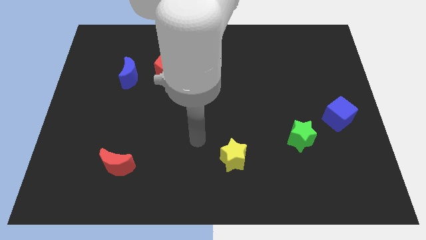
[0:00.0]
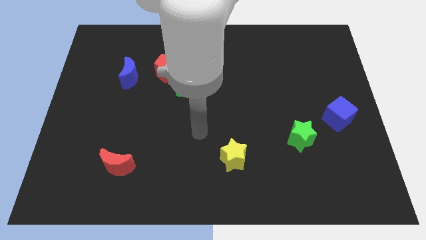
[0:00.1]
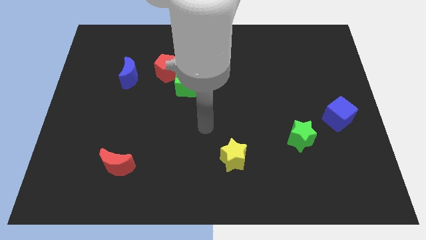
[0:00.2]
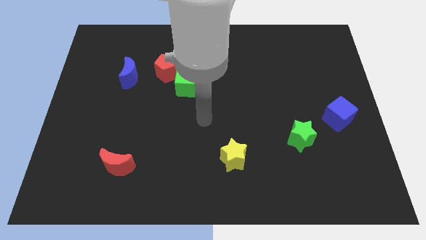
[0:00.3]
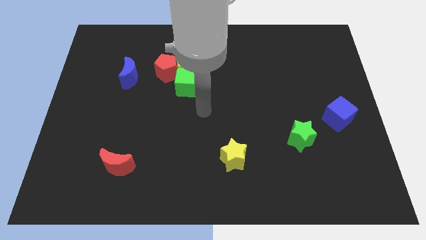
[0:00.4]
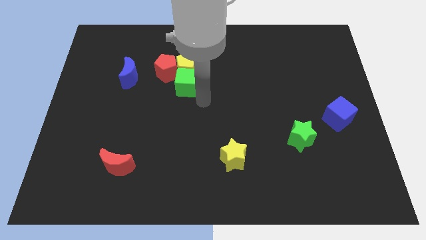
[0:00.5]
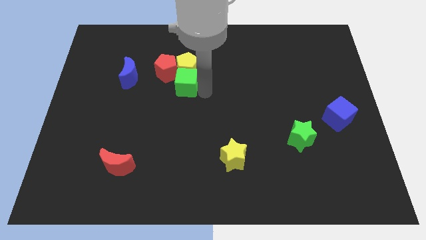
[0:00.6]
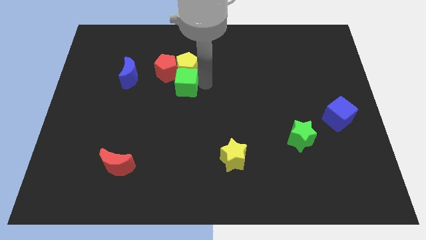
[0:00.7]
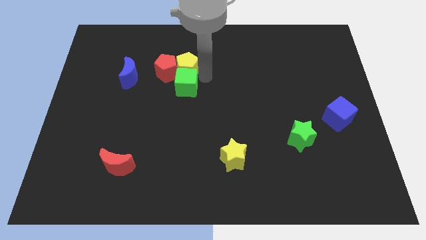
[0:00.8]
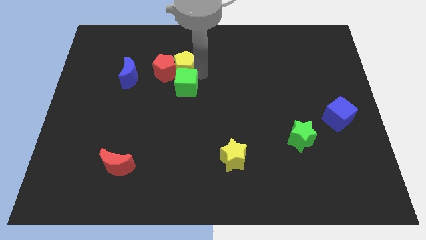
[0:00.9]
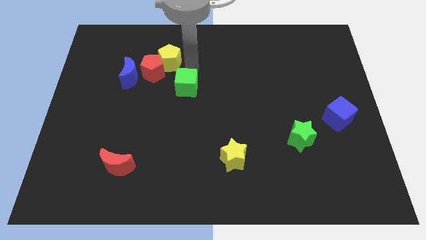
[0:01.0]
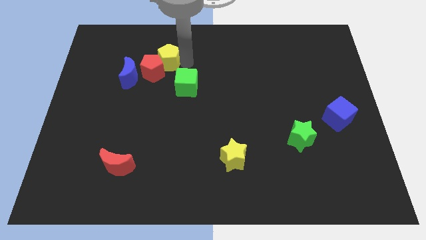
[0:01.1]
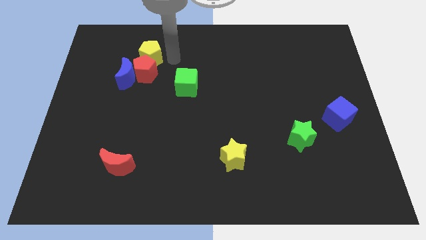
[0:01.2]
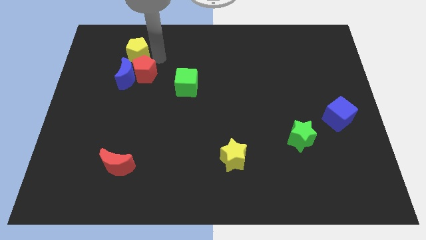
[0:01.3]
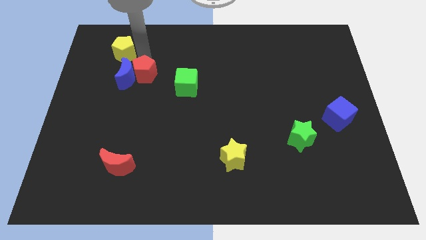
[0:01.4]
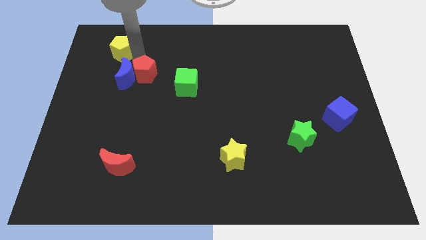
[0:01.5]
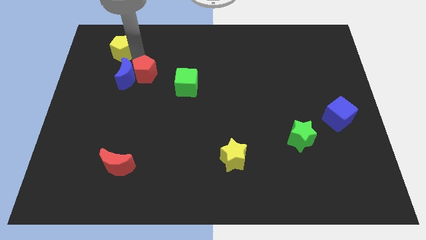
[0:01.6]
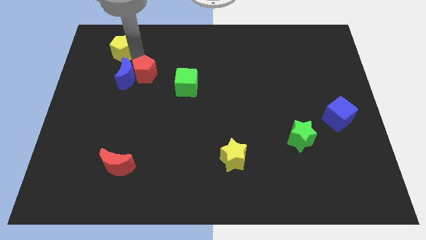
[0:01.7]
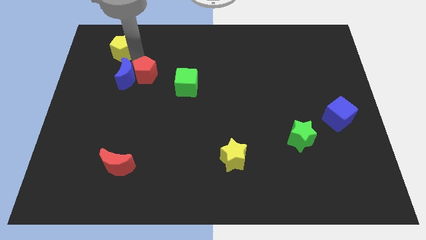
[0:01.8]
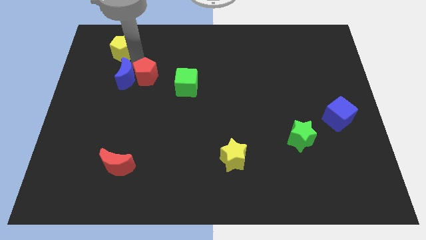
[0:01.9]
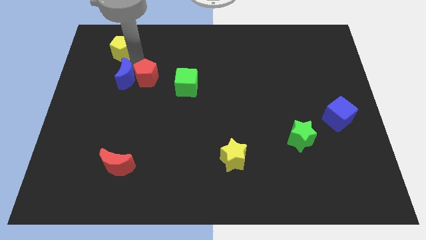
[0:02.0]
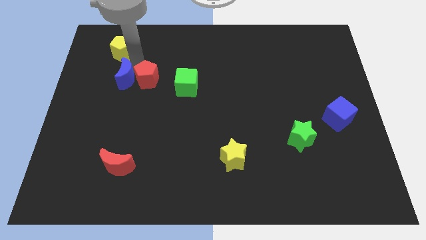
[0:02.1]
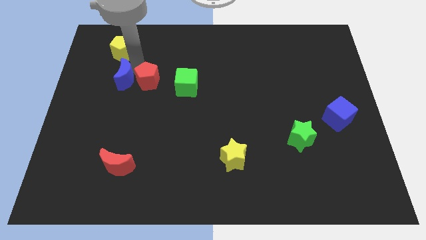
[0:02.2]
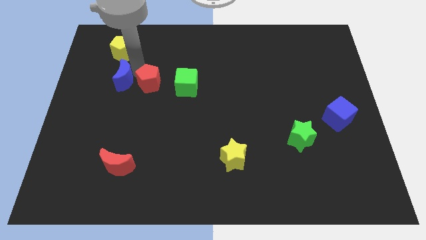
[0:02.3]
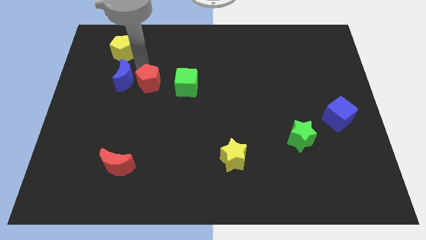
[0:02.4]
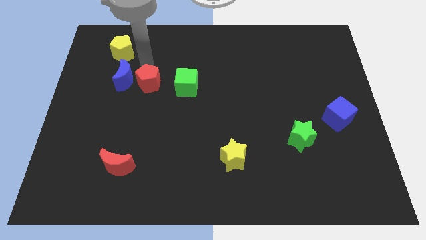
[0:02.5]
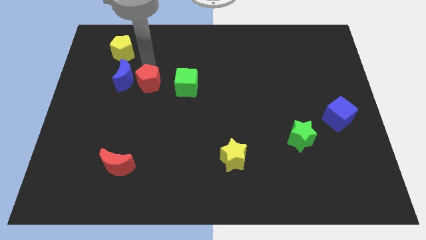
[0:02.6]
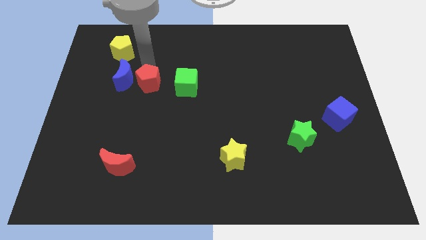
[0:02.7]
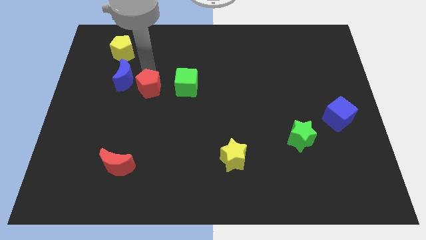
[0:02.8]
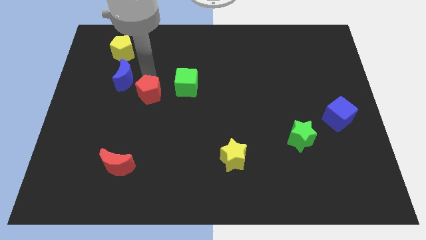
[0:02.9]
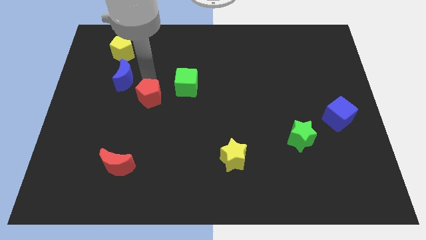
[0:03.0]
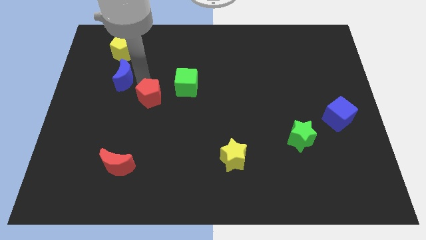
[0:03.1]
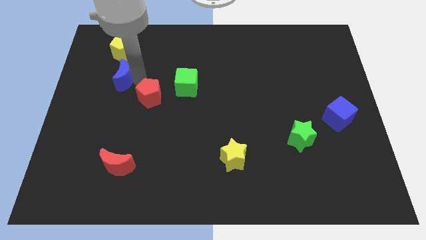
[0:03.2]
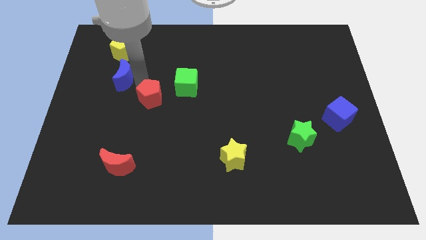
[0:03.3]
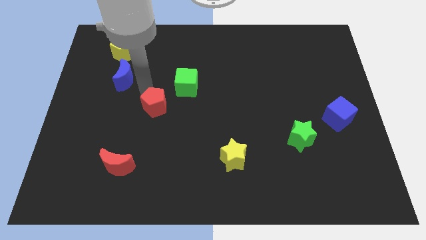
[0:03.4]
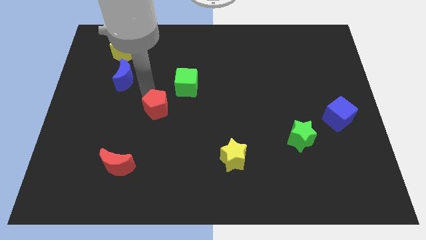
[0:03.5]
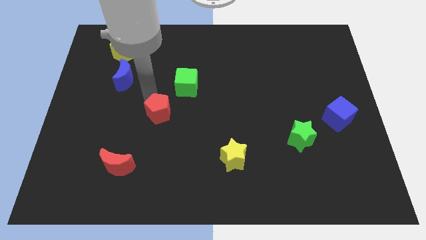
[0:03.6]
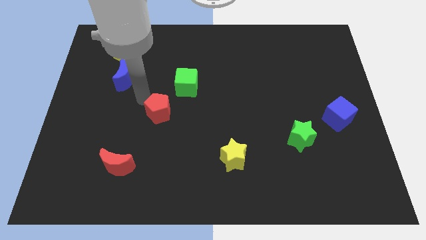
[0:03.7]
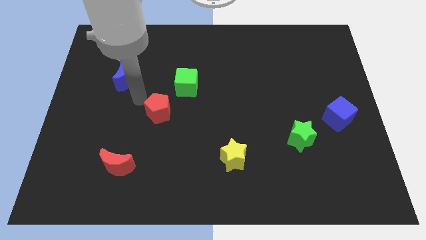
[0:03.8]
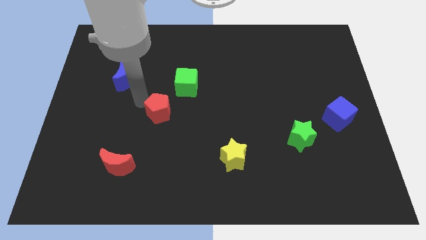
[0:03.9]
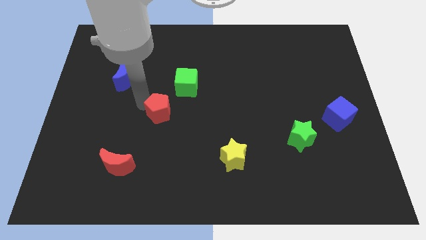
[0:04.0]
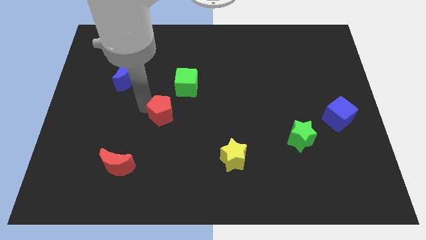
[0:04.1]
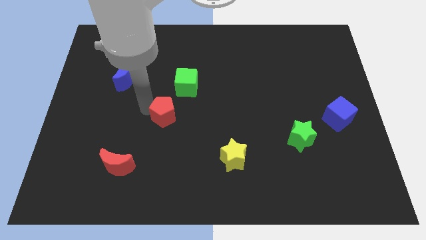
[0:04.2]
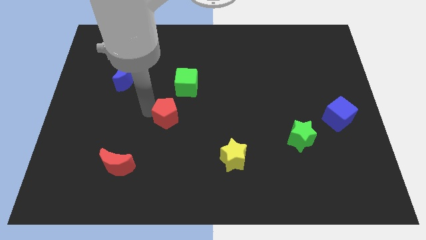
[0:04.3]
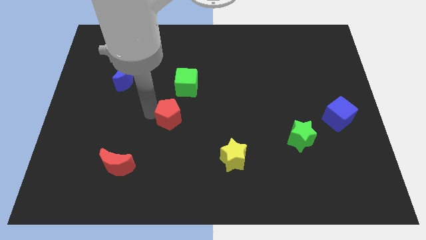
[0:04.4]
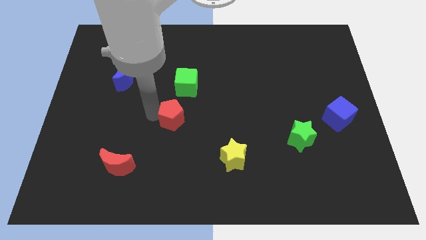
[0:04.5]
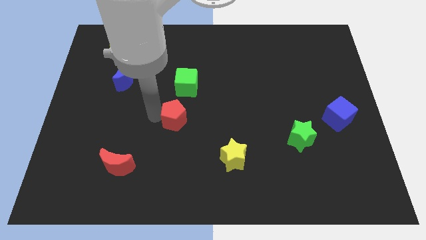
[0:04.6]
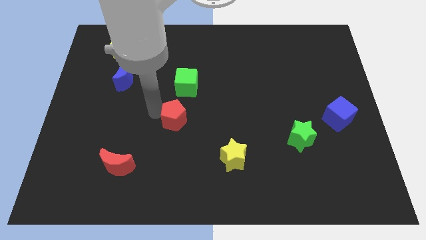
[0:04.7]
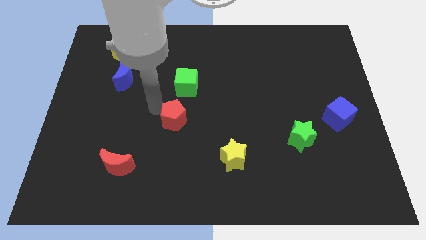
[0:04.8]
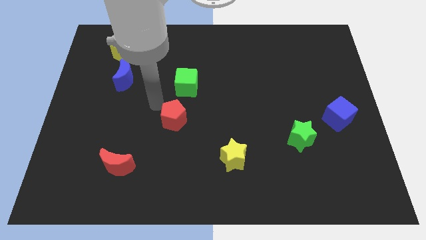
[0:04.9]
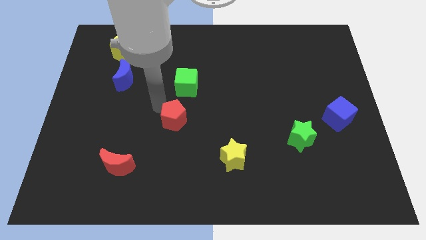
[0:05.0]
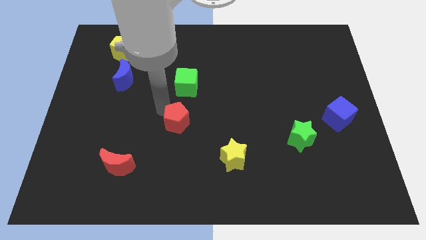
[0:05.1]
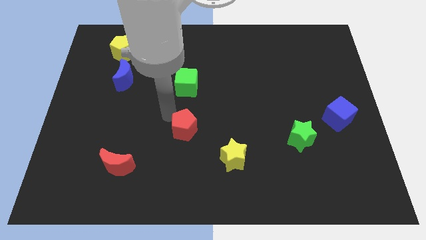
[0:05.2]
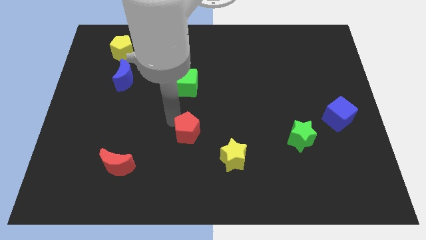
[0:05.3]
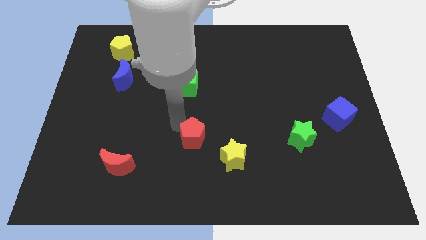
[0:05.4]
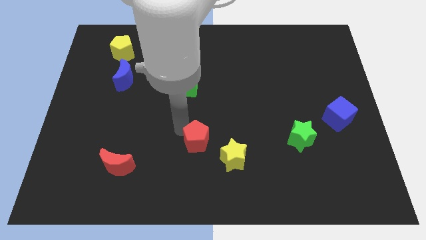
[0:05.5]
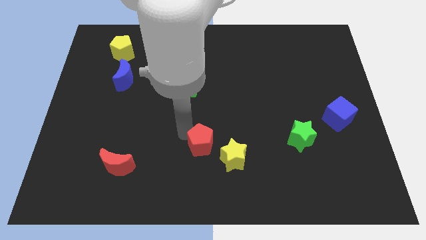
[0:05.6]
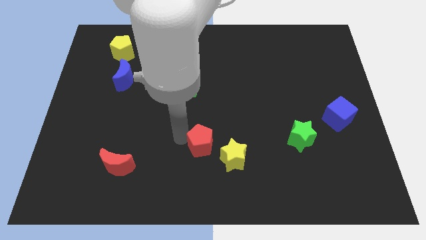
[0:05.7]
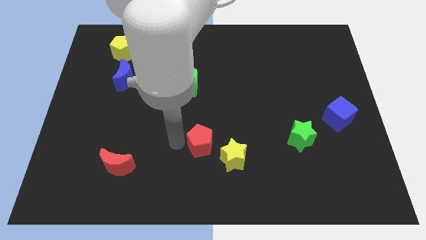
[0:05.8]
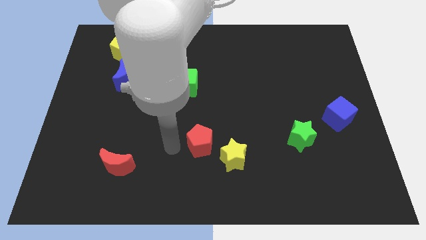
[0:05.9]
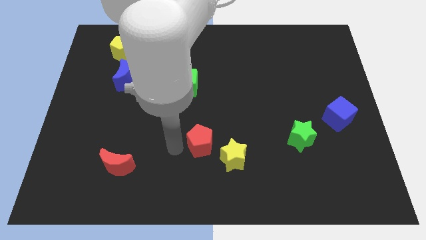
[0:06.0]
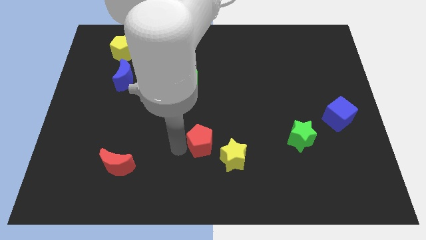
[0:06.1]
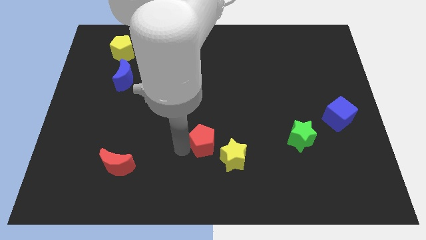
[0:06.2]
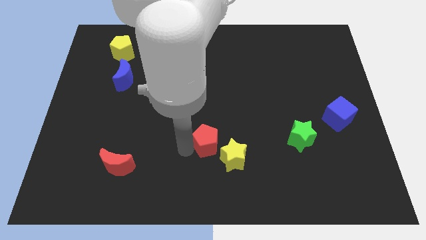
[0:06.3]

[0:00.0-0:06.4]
push the red pentagon diagonally down and right

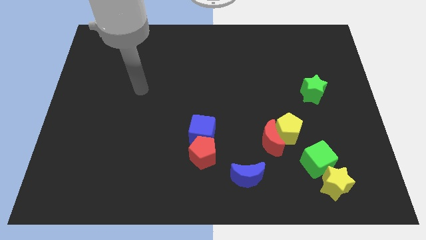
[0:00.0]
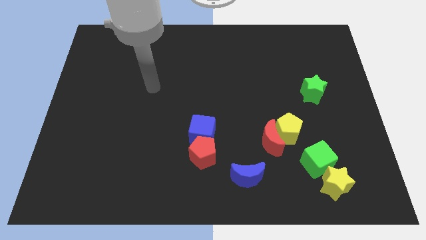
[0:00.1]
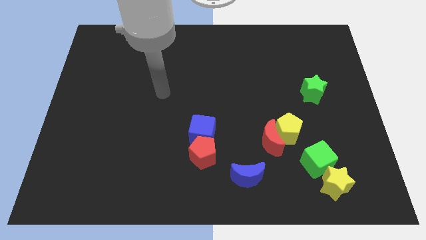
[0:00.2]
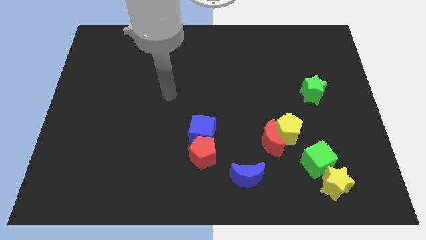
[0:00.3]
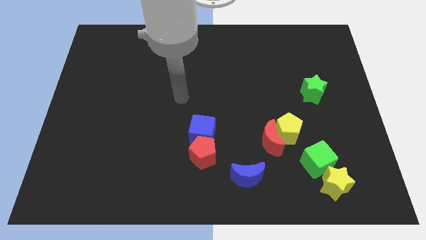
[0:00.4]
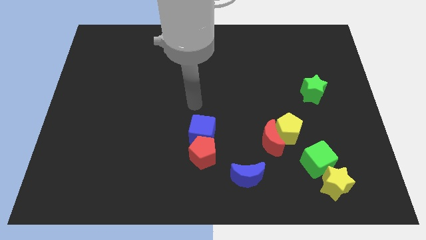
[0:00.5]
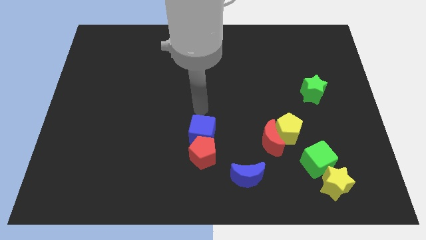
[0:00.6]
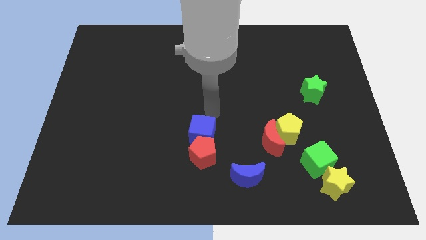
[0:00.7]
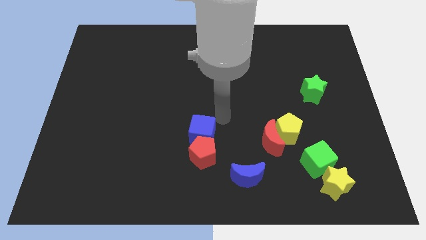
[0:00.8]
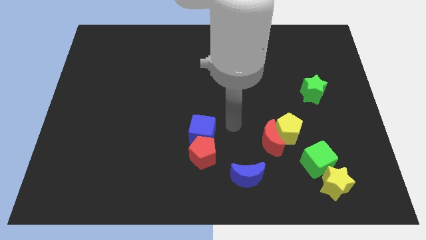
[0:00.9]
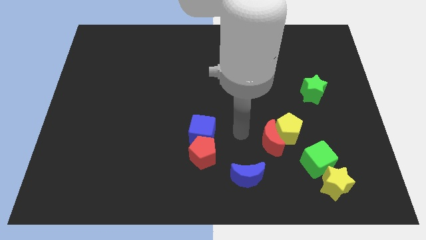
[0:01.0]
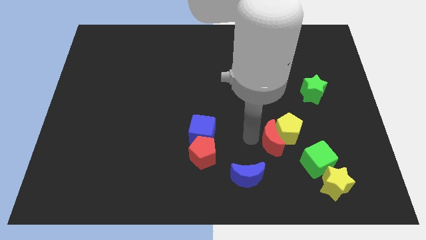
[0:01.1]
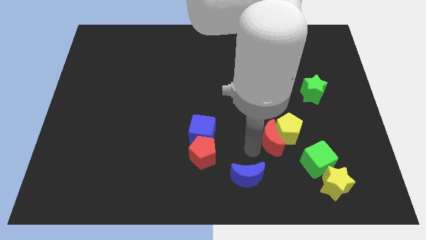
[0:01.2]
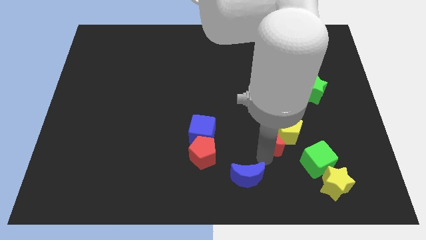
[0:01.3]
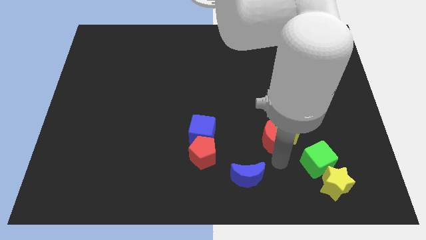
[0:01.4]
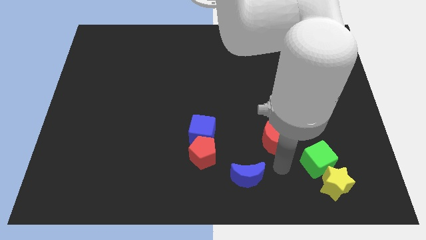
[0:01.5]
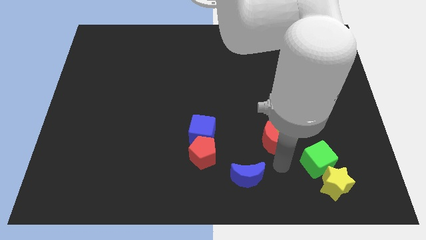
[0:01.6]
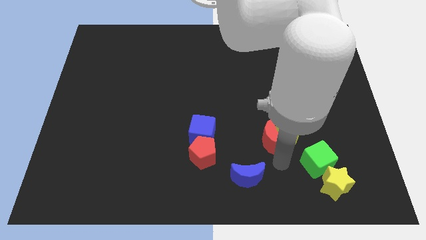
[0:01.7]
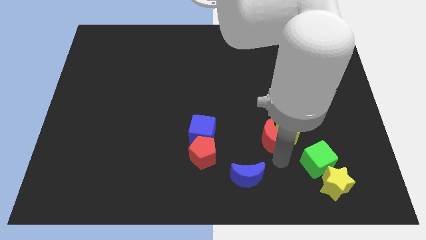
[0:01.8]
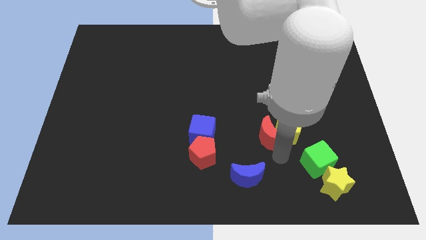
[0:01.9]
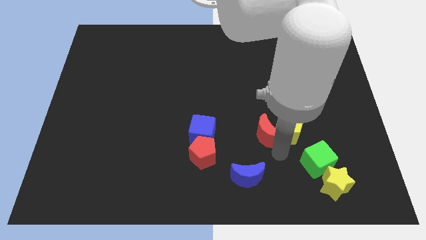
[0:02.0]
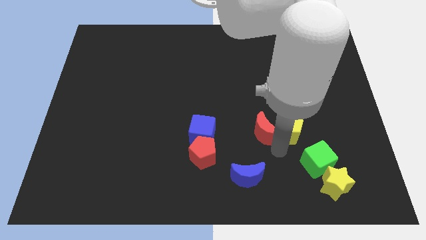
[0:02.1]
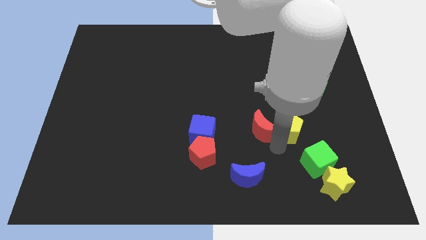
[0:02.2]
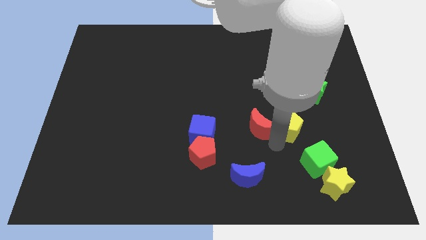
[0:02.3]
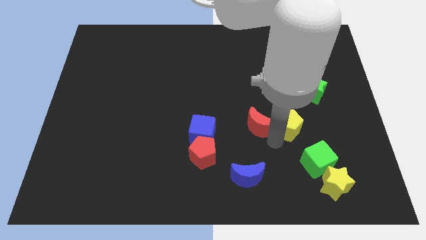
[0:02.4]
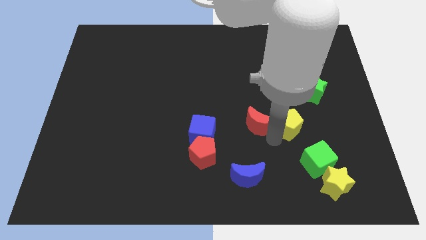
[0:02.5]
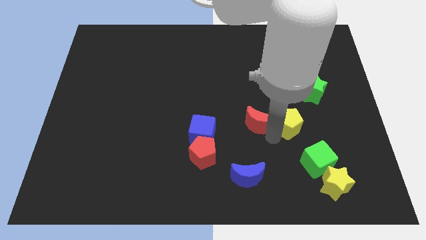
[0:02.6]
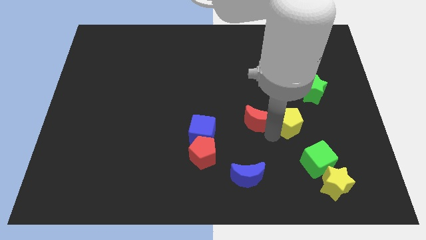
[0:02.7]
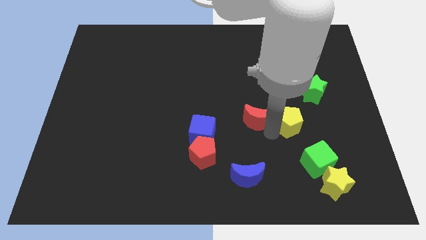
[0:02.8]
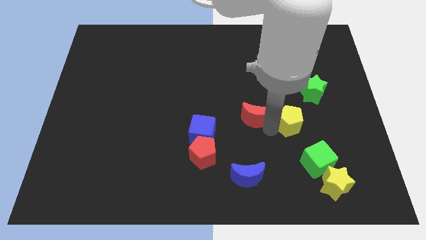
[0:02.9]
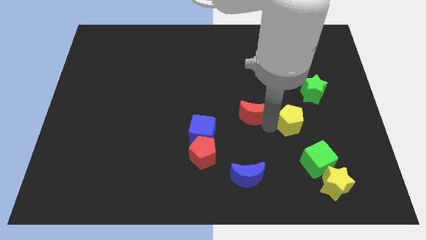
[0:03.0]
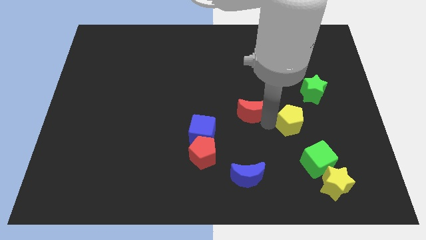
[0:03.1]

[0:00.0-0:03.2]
slightly push the red moon upwards
